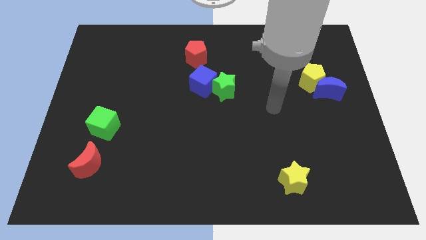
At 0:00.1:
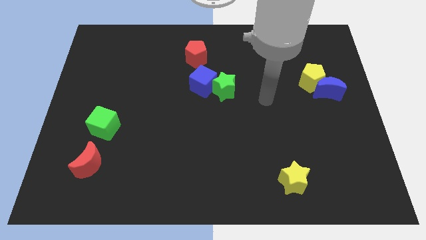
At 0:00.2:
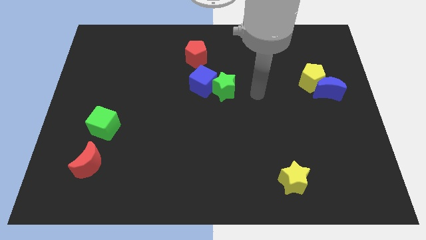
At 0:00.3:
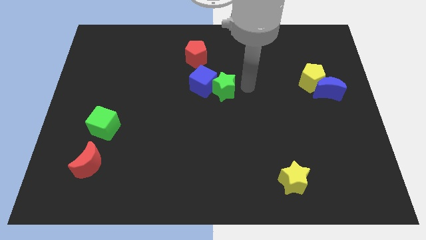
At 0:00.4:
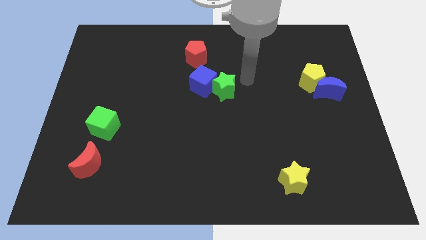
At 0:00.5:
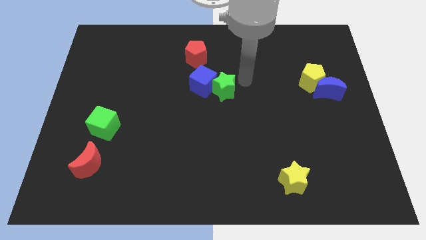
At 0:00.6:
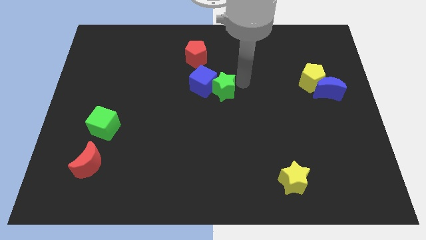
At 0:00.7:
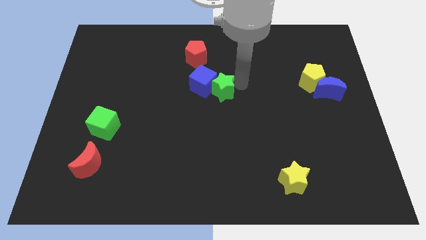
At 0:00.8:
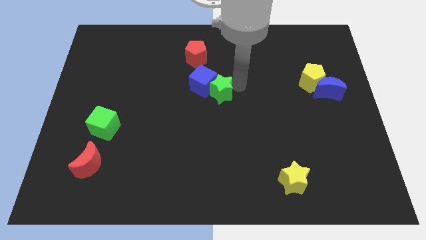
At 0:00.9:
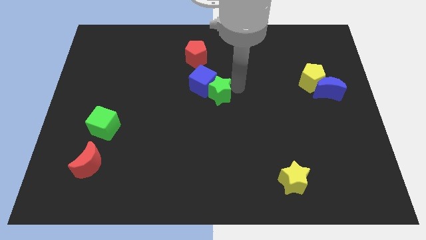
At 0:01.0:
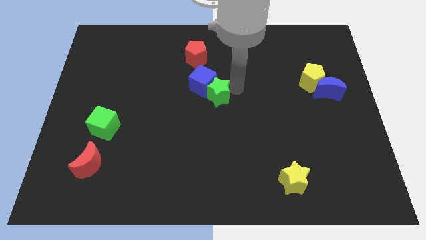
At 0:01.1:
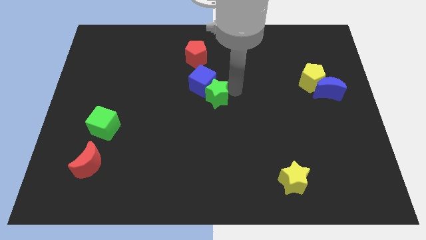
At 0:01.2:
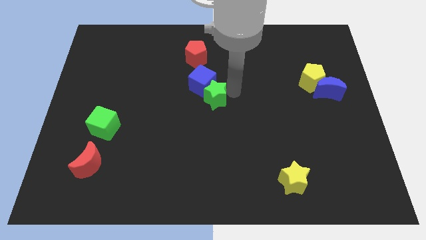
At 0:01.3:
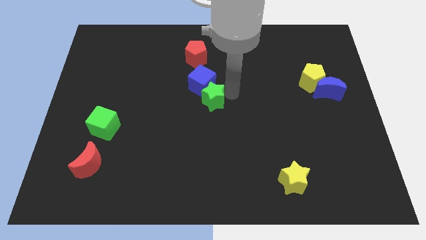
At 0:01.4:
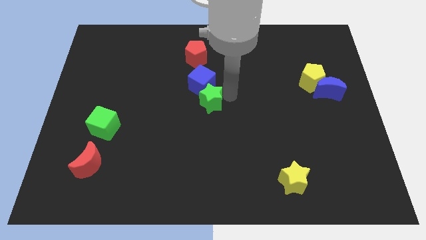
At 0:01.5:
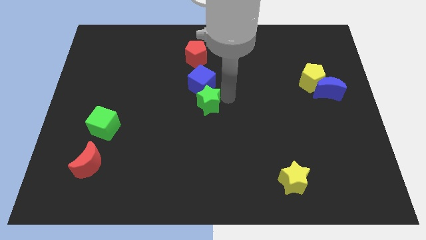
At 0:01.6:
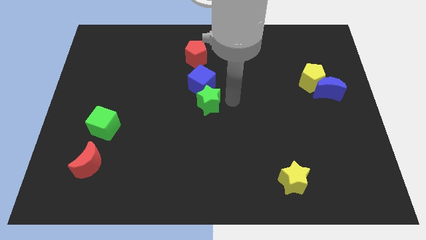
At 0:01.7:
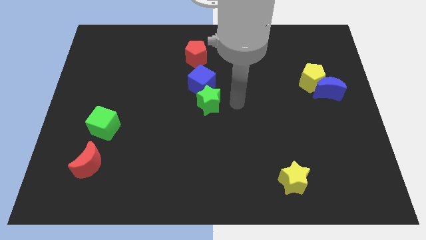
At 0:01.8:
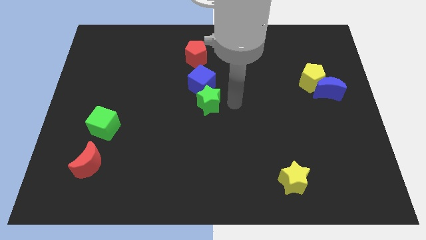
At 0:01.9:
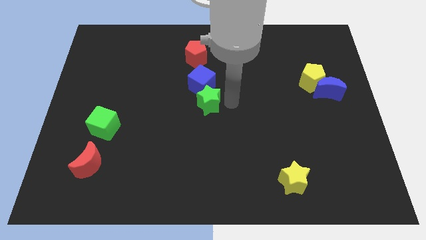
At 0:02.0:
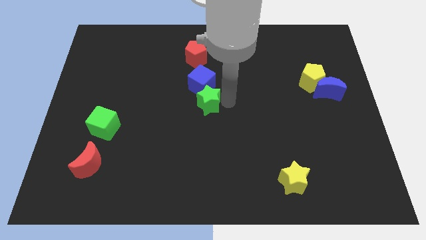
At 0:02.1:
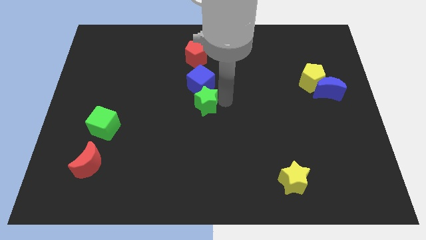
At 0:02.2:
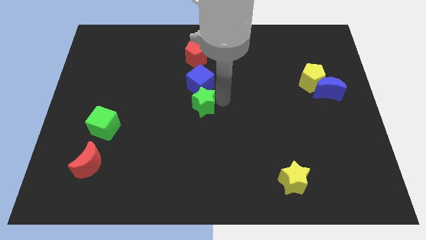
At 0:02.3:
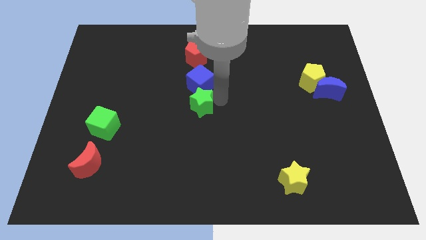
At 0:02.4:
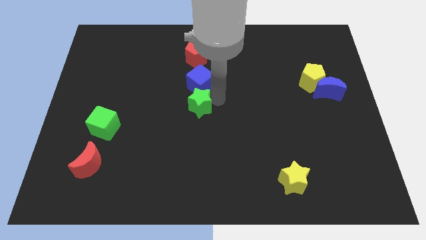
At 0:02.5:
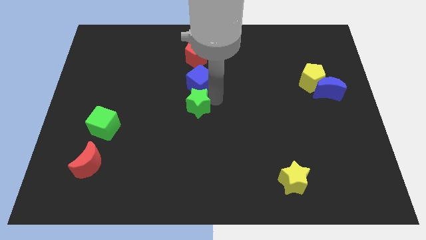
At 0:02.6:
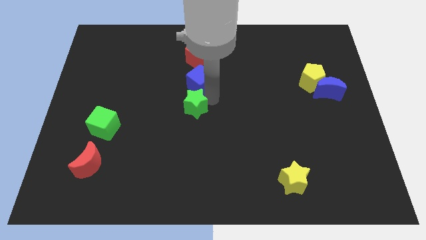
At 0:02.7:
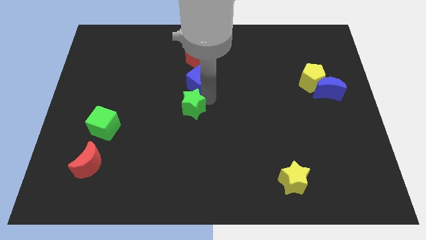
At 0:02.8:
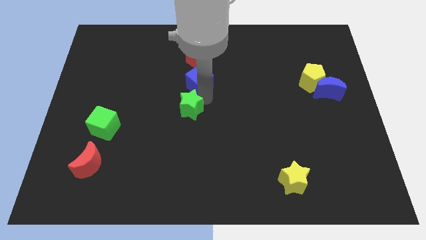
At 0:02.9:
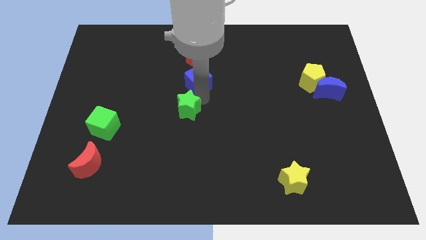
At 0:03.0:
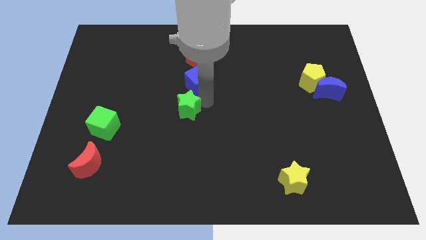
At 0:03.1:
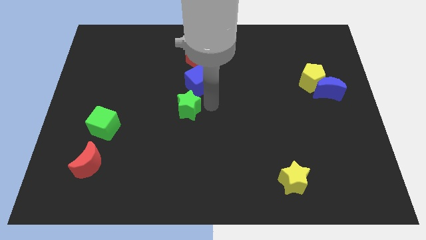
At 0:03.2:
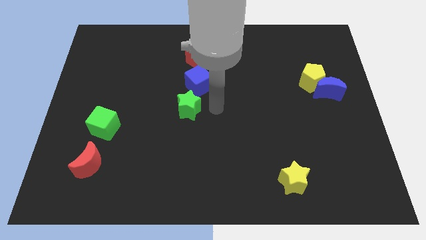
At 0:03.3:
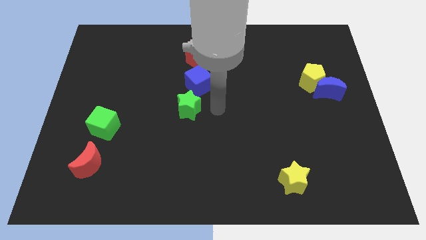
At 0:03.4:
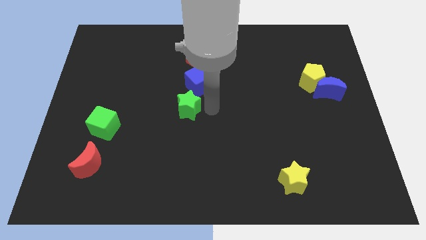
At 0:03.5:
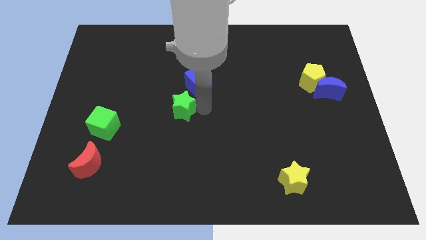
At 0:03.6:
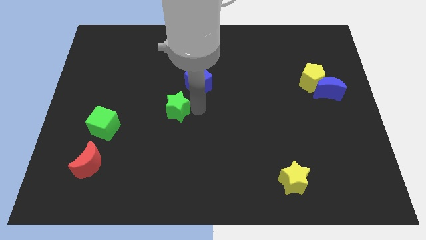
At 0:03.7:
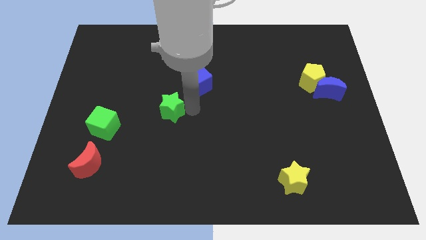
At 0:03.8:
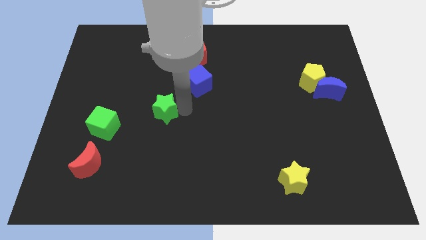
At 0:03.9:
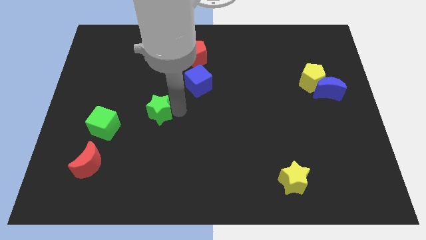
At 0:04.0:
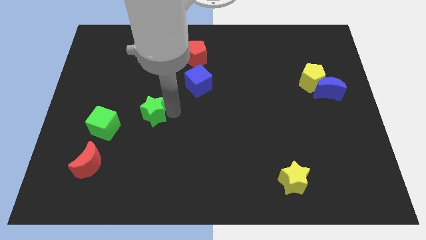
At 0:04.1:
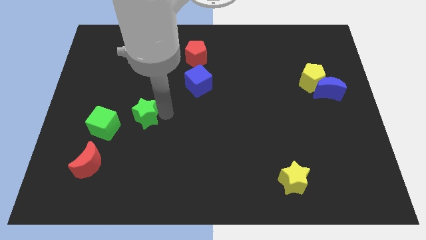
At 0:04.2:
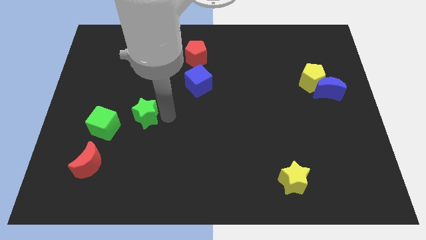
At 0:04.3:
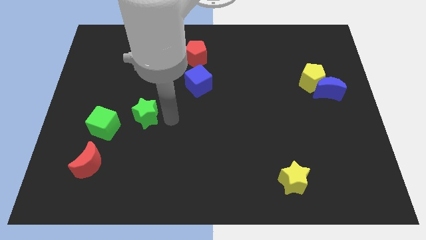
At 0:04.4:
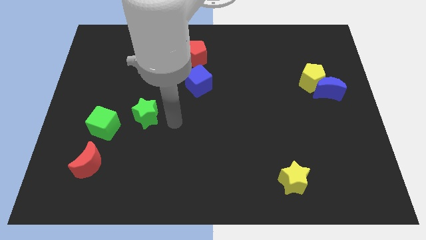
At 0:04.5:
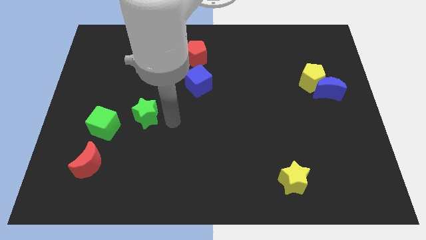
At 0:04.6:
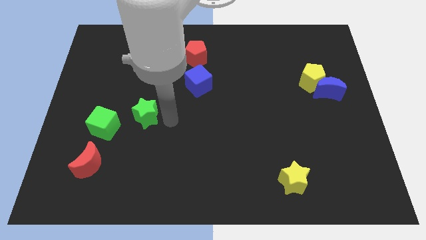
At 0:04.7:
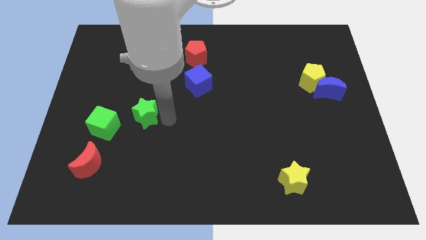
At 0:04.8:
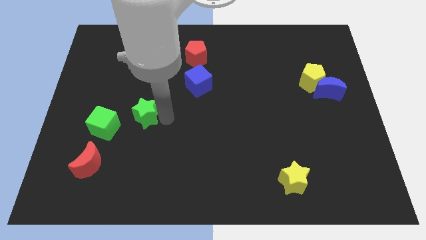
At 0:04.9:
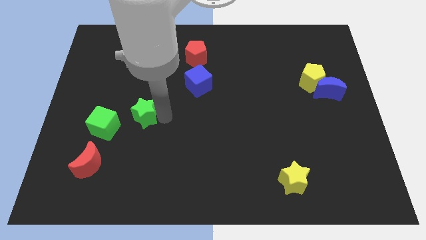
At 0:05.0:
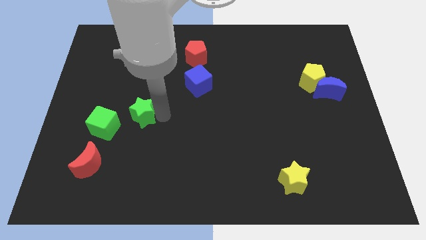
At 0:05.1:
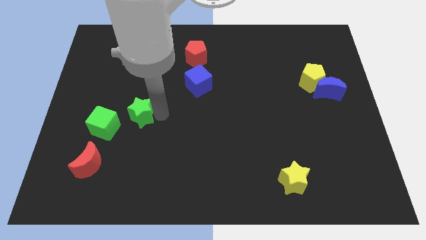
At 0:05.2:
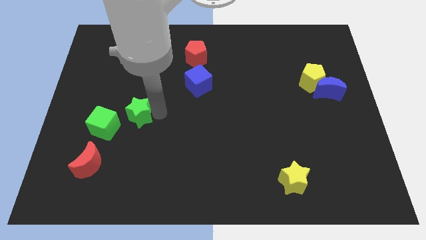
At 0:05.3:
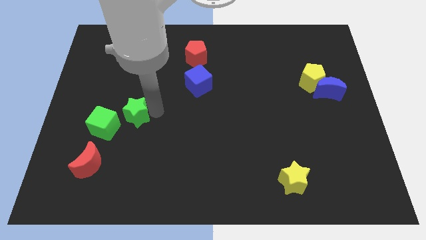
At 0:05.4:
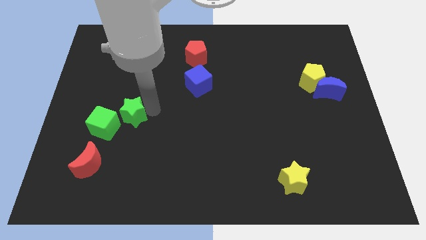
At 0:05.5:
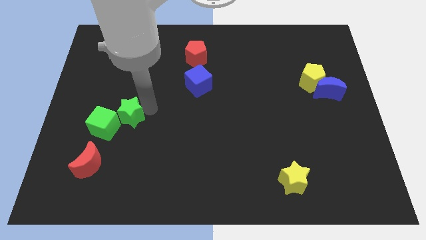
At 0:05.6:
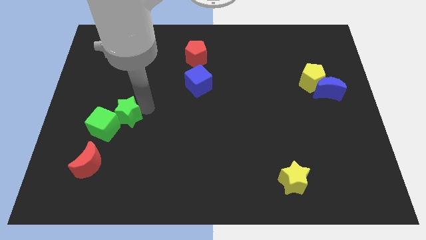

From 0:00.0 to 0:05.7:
move the green star close to the green cube

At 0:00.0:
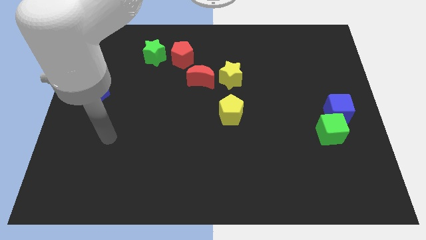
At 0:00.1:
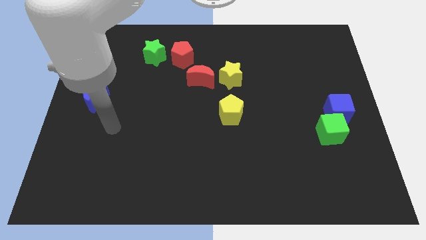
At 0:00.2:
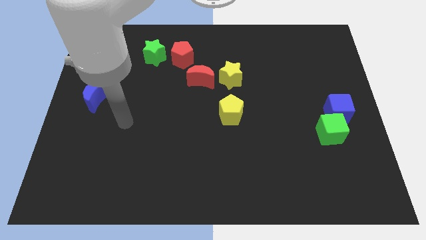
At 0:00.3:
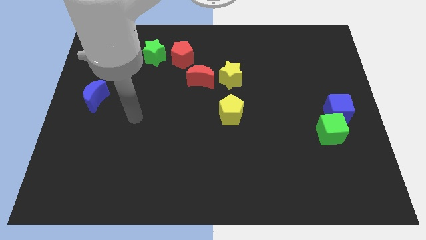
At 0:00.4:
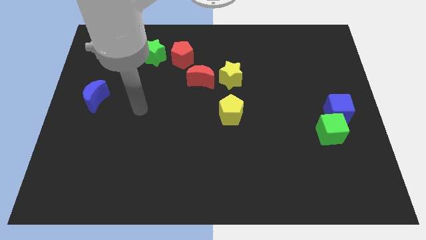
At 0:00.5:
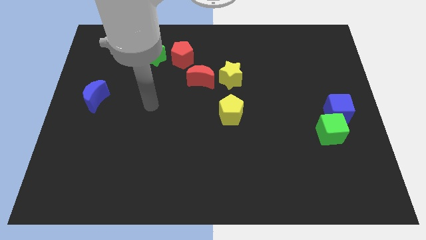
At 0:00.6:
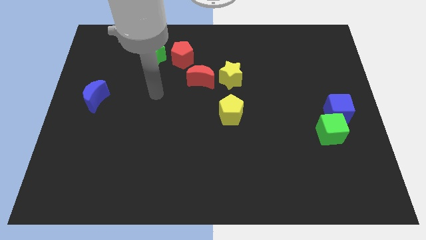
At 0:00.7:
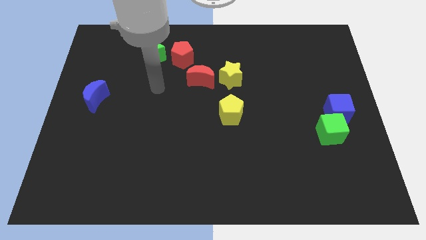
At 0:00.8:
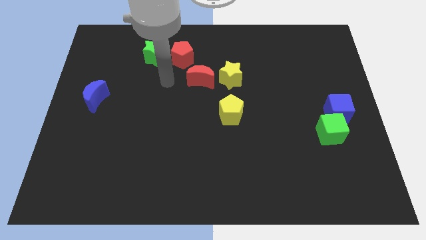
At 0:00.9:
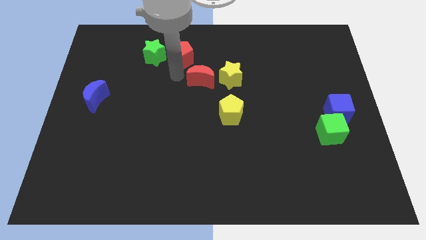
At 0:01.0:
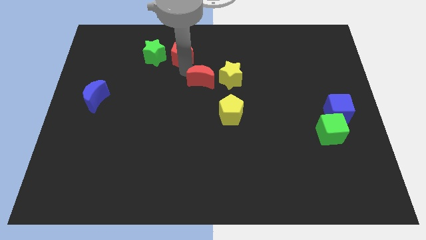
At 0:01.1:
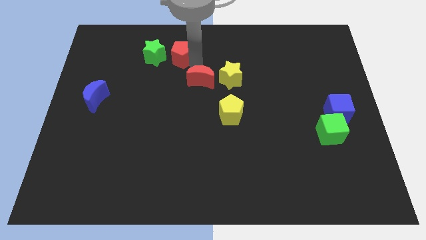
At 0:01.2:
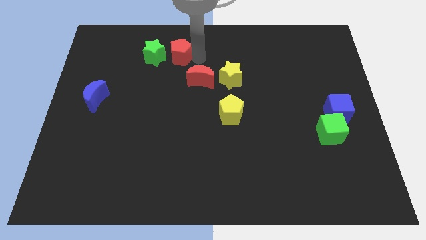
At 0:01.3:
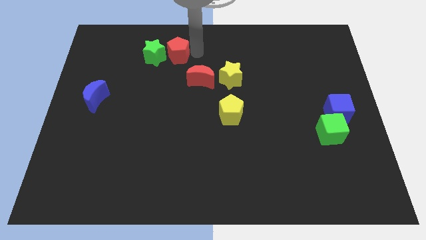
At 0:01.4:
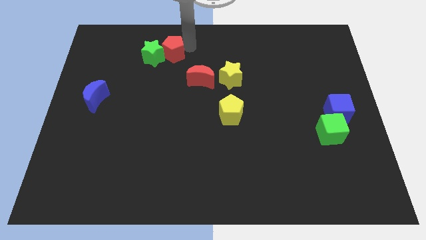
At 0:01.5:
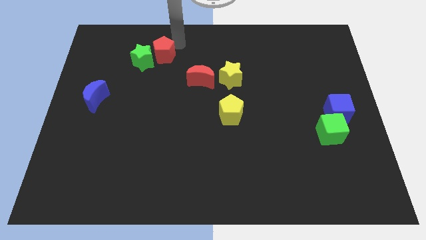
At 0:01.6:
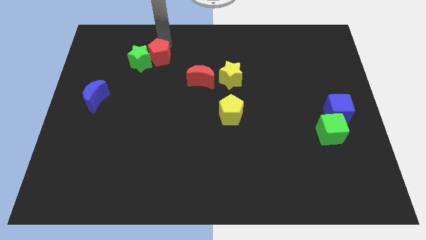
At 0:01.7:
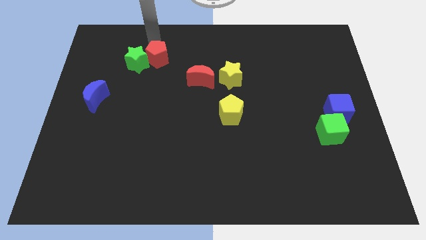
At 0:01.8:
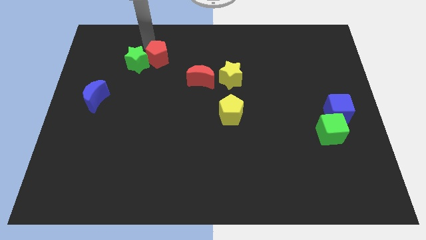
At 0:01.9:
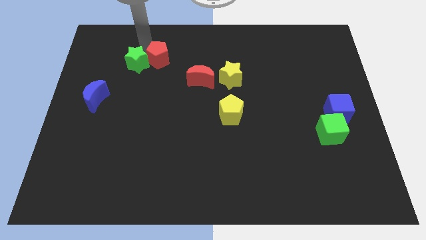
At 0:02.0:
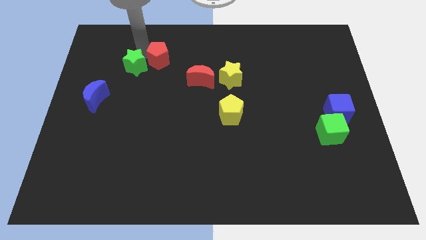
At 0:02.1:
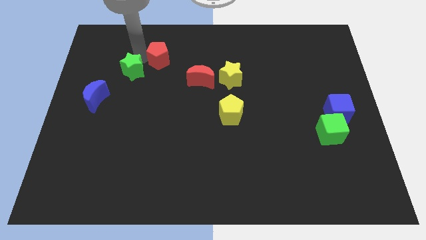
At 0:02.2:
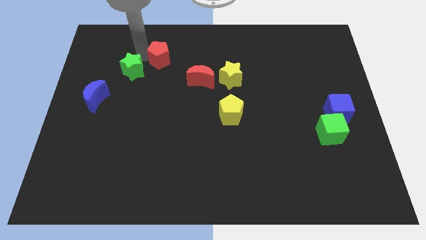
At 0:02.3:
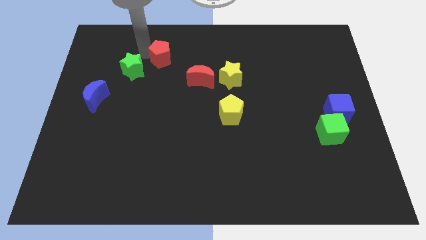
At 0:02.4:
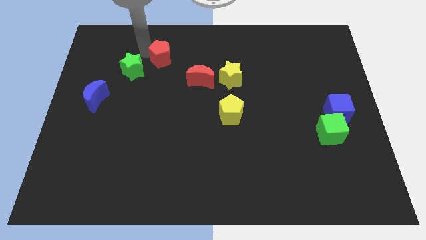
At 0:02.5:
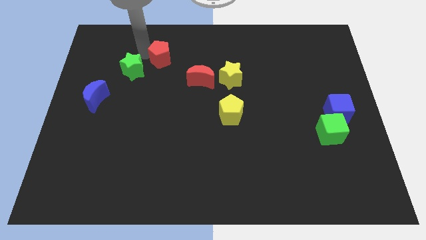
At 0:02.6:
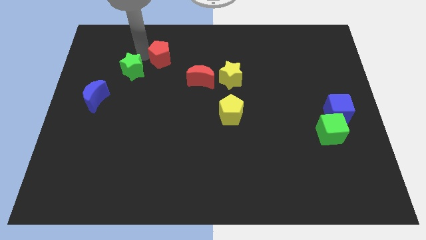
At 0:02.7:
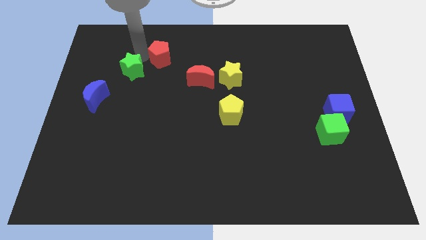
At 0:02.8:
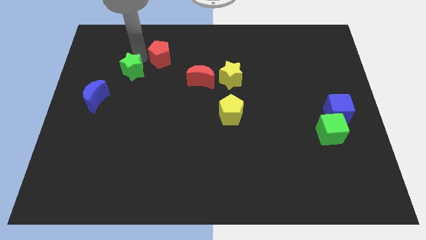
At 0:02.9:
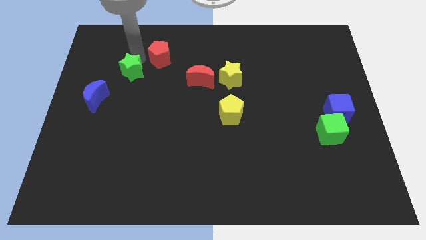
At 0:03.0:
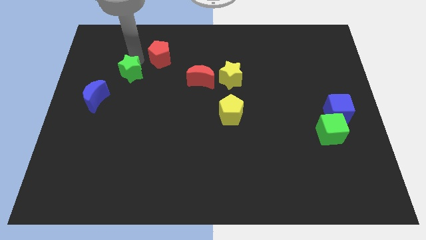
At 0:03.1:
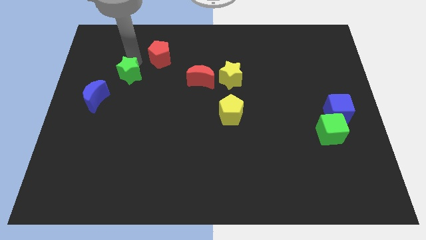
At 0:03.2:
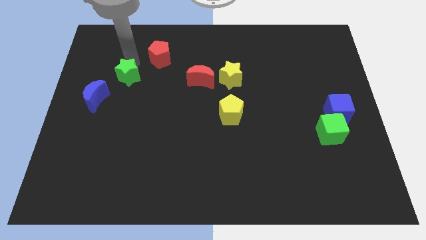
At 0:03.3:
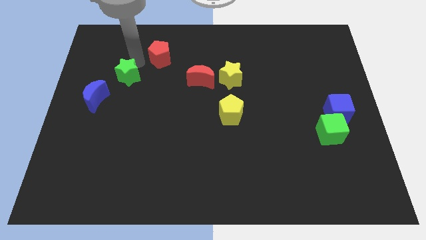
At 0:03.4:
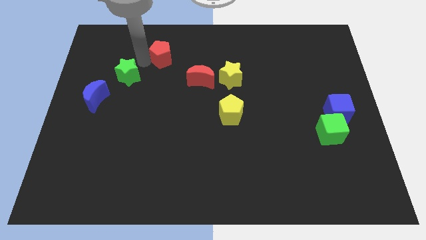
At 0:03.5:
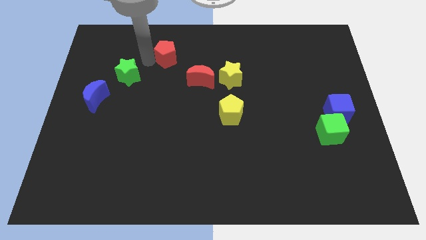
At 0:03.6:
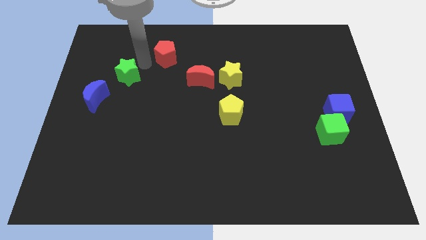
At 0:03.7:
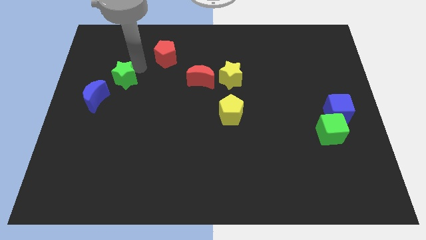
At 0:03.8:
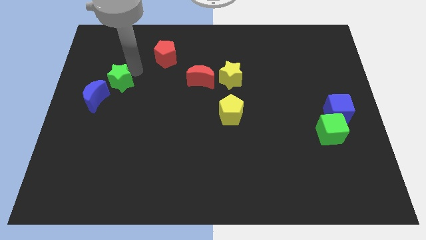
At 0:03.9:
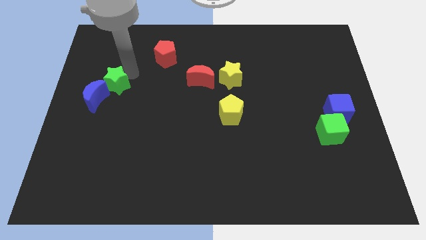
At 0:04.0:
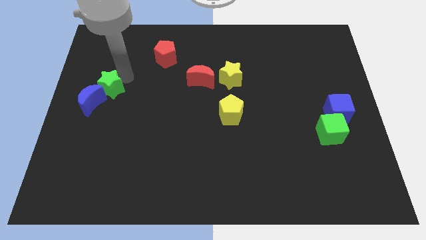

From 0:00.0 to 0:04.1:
push the green star to the blue moon
